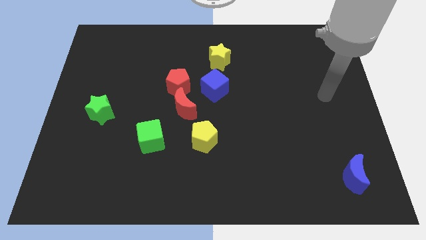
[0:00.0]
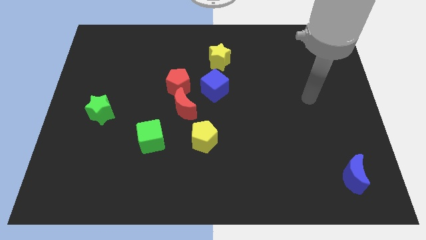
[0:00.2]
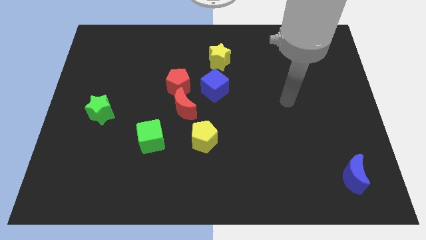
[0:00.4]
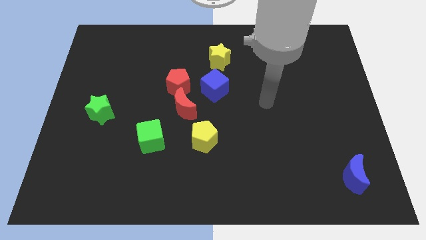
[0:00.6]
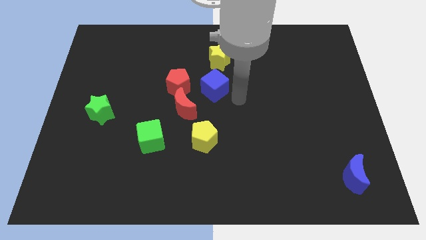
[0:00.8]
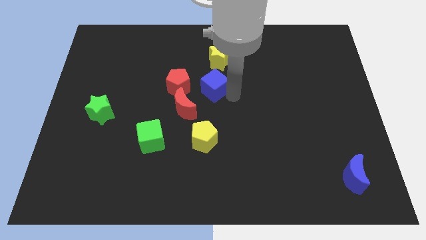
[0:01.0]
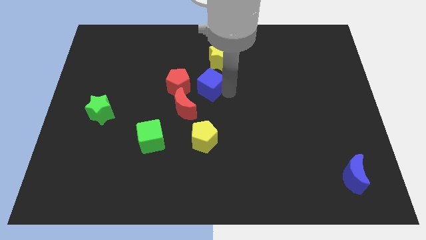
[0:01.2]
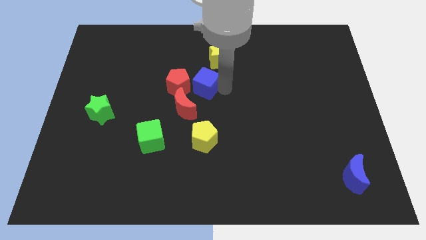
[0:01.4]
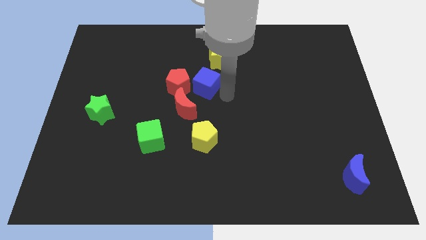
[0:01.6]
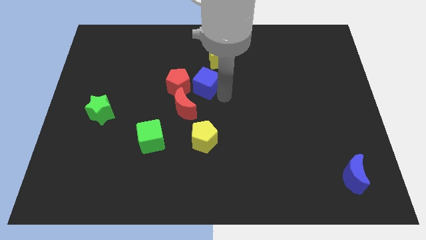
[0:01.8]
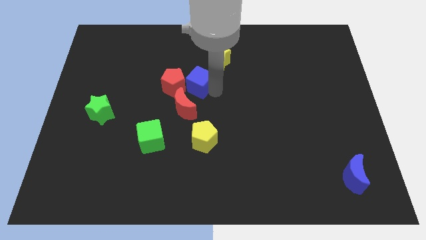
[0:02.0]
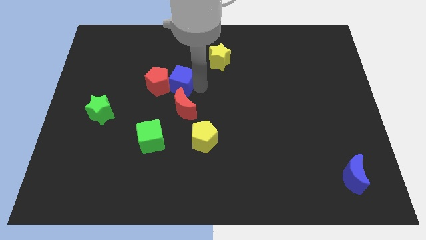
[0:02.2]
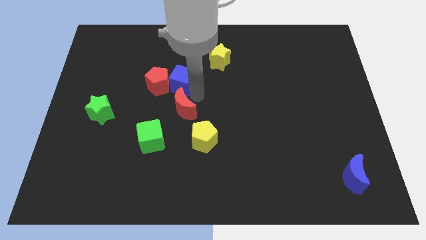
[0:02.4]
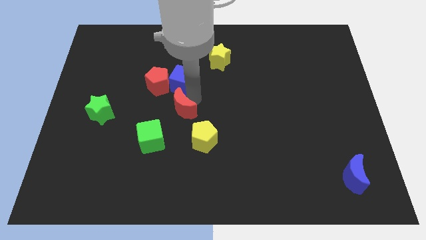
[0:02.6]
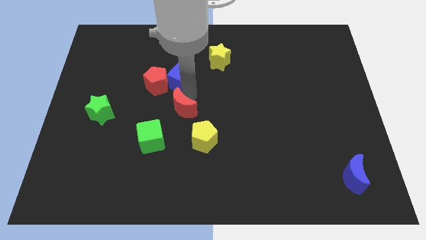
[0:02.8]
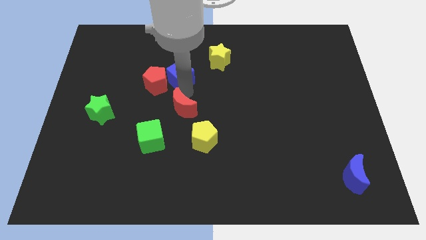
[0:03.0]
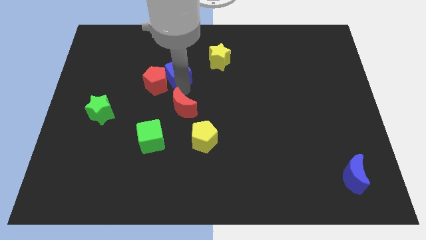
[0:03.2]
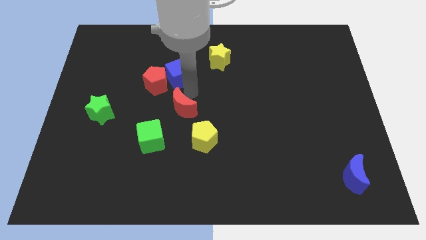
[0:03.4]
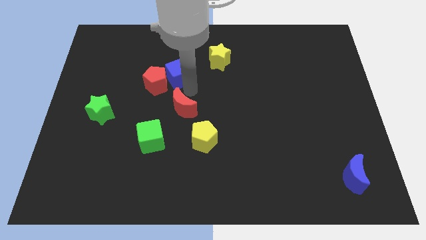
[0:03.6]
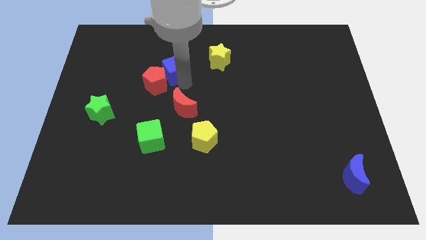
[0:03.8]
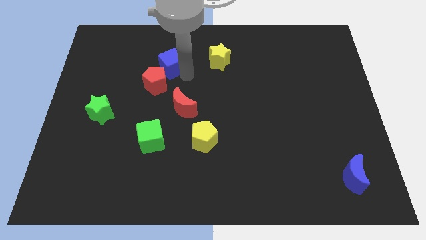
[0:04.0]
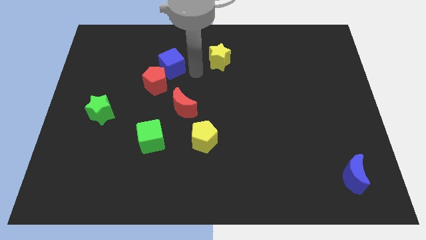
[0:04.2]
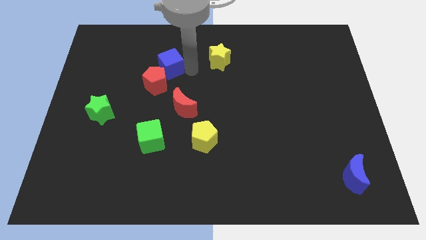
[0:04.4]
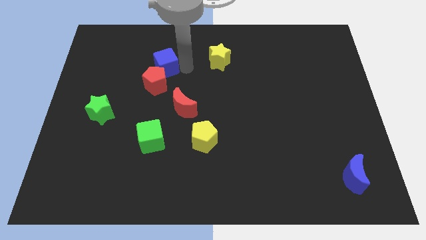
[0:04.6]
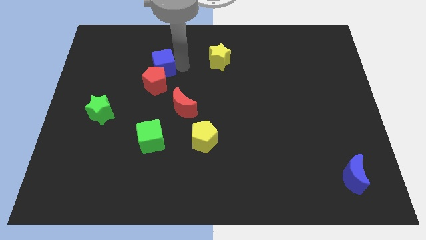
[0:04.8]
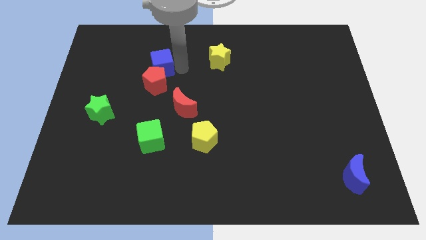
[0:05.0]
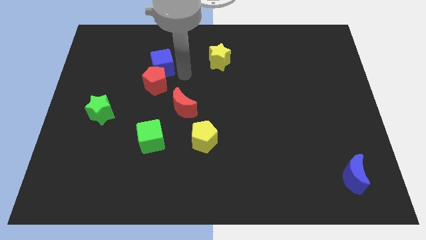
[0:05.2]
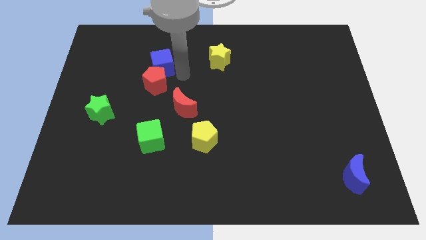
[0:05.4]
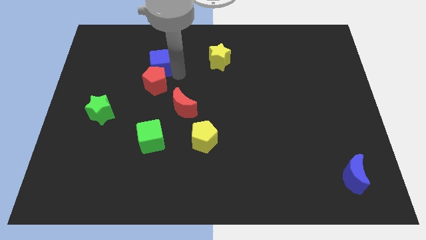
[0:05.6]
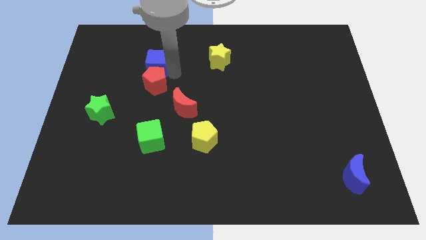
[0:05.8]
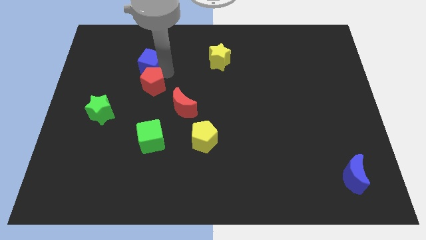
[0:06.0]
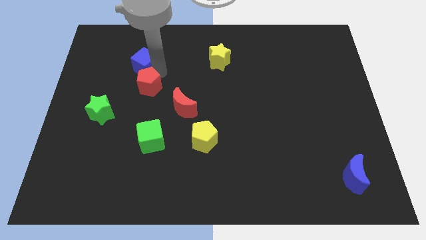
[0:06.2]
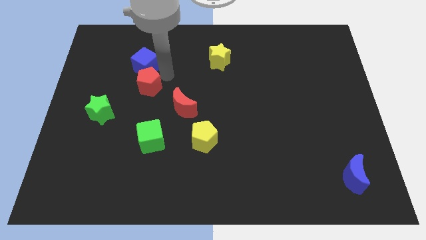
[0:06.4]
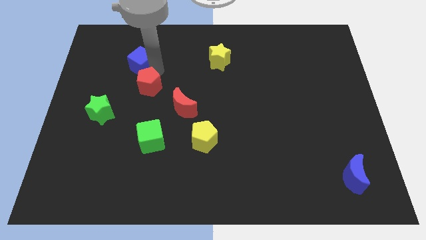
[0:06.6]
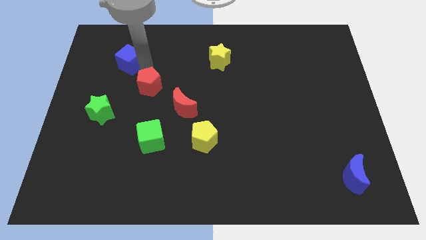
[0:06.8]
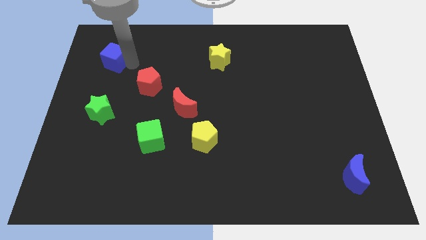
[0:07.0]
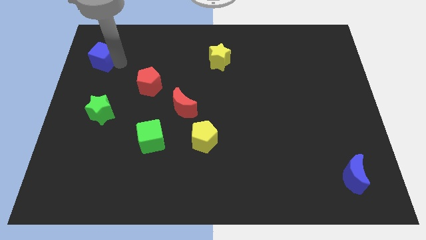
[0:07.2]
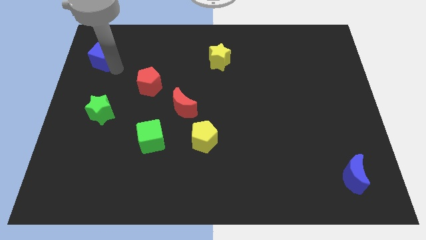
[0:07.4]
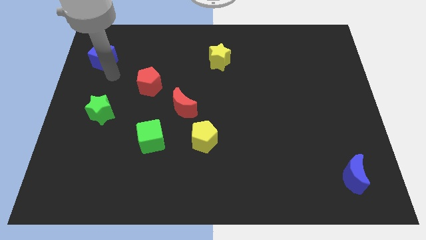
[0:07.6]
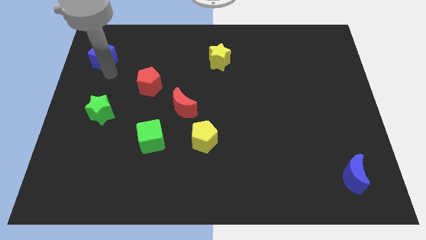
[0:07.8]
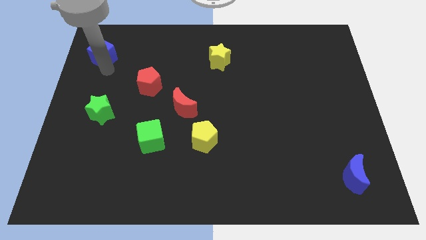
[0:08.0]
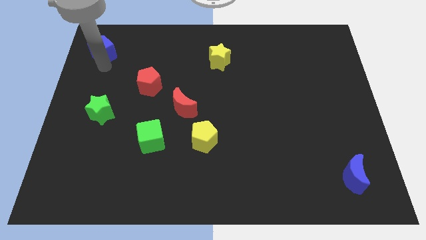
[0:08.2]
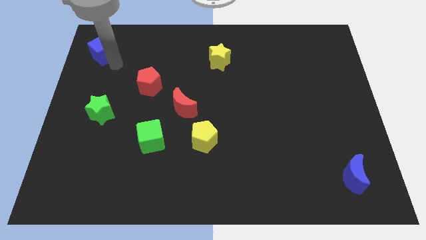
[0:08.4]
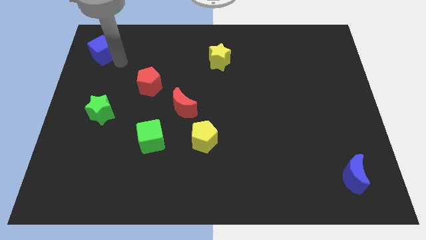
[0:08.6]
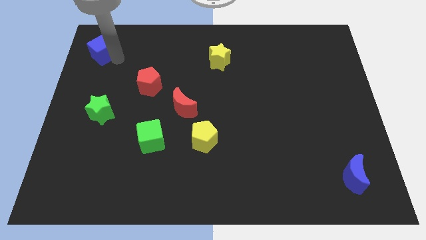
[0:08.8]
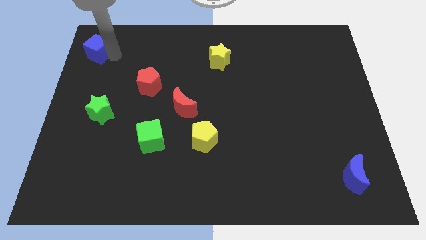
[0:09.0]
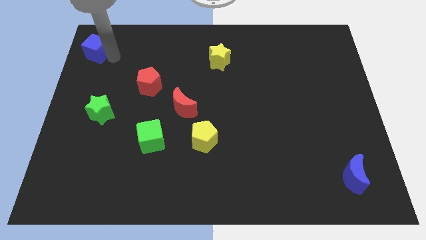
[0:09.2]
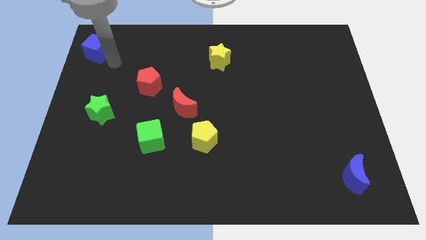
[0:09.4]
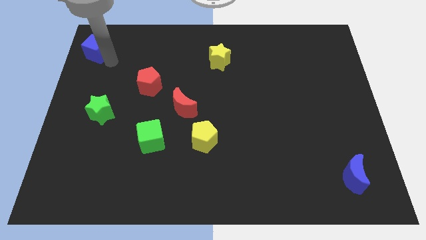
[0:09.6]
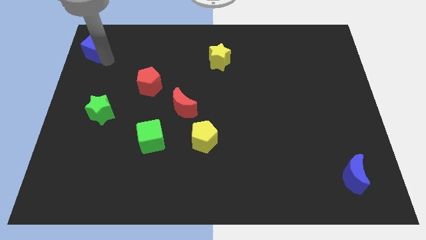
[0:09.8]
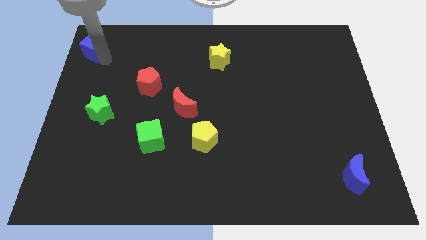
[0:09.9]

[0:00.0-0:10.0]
push the blue cube to the top left corner

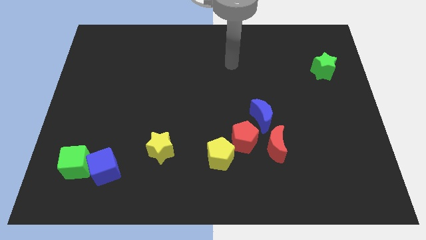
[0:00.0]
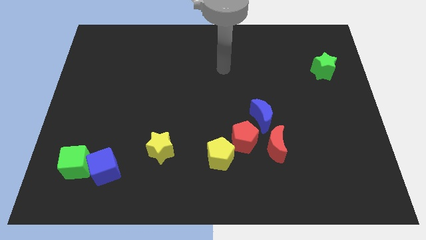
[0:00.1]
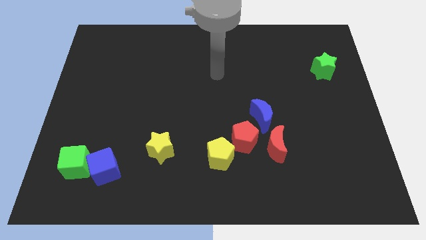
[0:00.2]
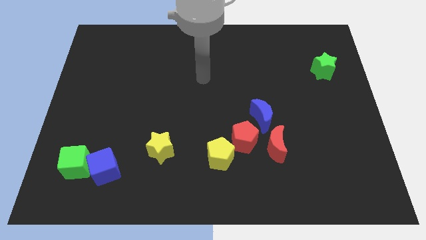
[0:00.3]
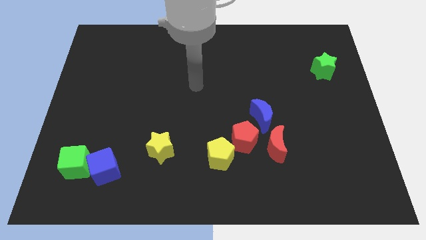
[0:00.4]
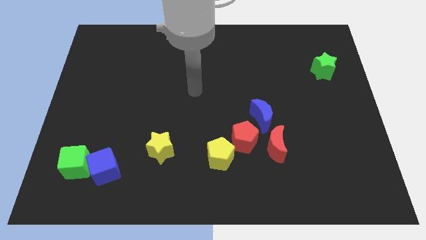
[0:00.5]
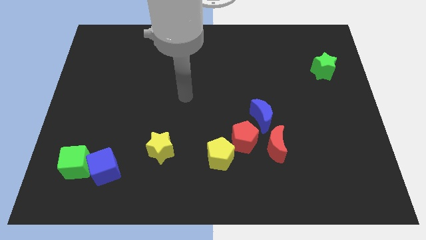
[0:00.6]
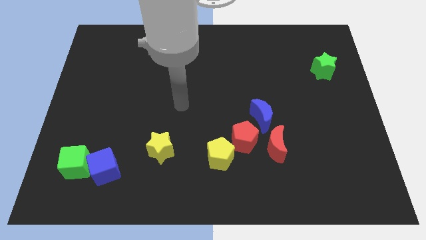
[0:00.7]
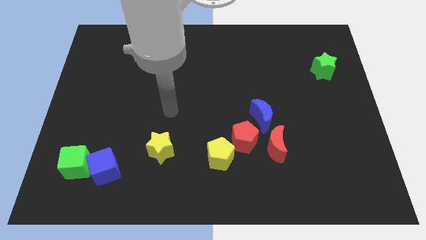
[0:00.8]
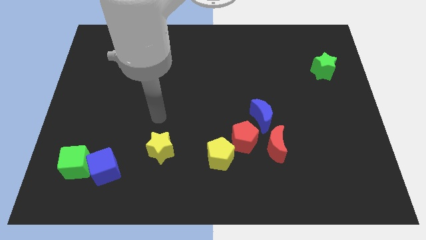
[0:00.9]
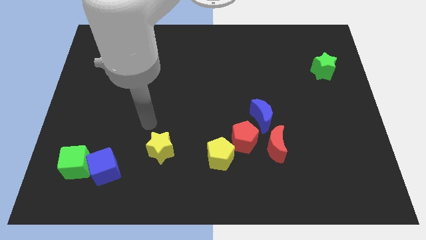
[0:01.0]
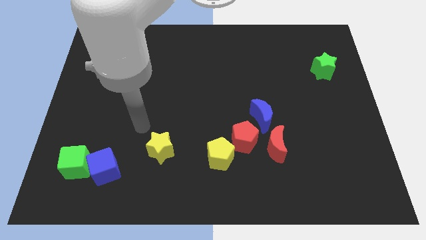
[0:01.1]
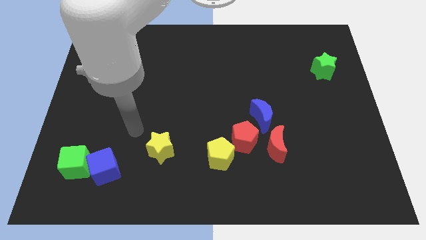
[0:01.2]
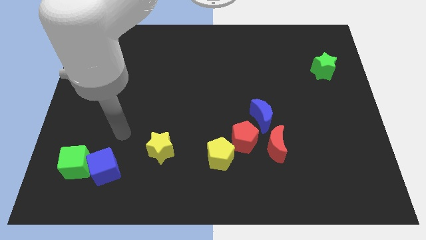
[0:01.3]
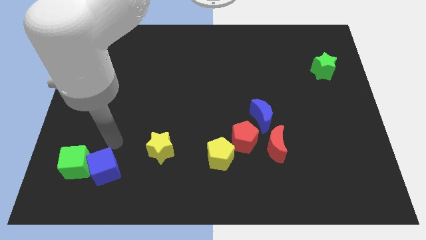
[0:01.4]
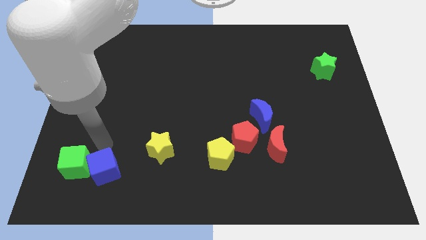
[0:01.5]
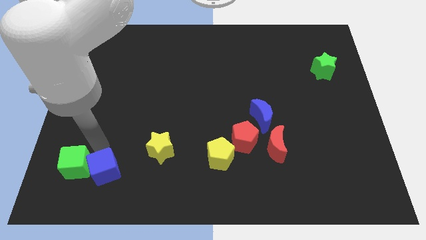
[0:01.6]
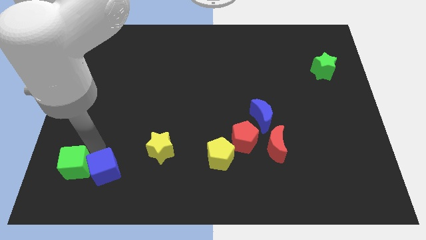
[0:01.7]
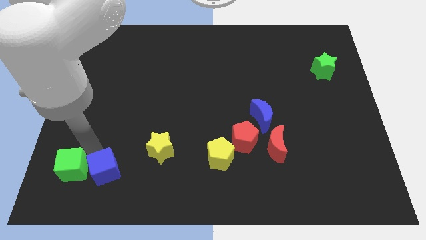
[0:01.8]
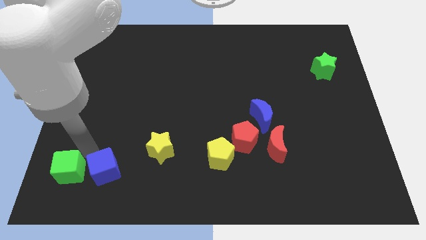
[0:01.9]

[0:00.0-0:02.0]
slide the green cube to the bottom left
